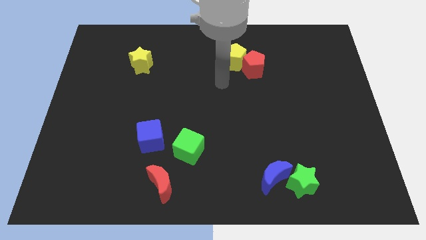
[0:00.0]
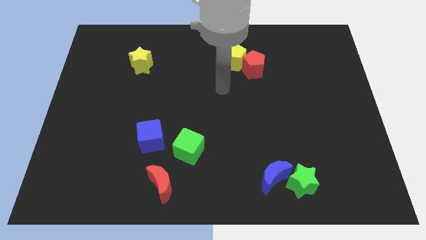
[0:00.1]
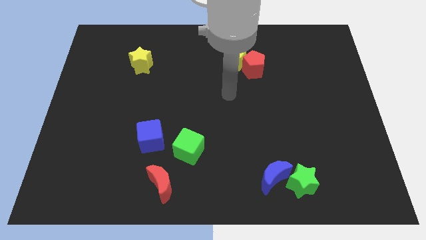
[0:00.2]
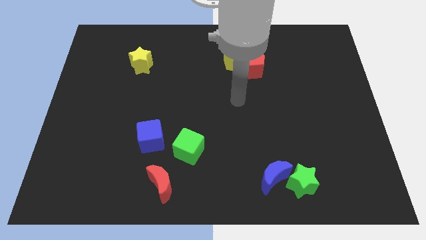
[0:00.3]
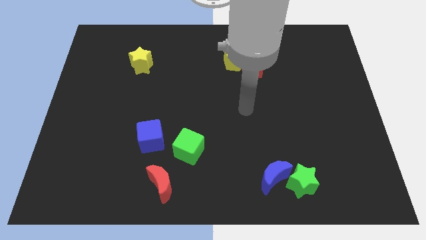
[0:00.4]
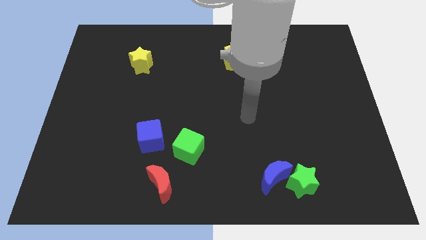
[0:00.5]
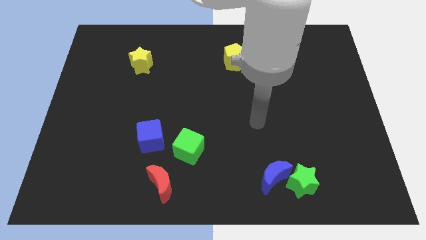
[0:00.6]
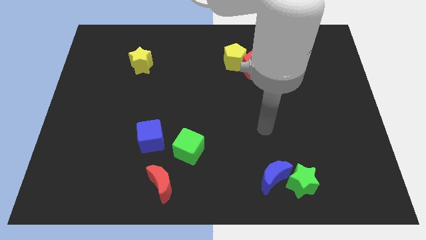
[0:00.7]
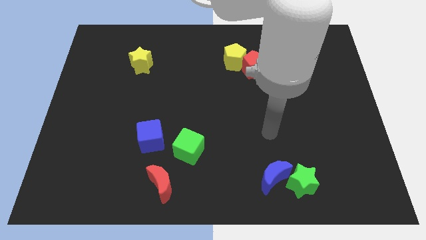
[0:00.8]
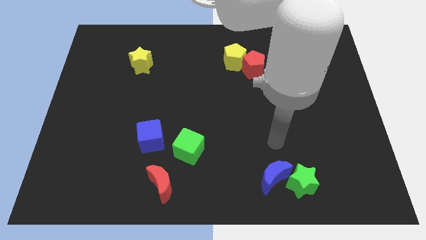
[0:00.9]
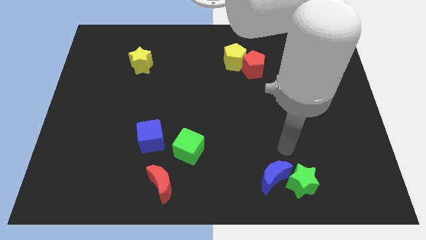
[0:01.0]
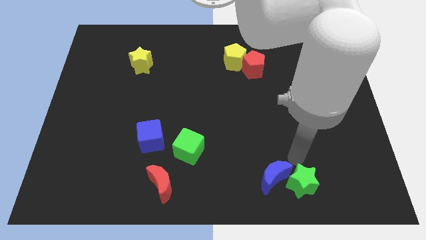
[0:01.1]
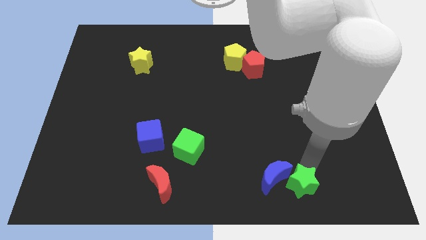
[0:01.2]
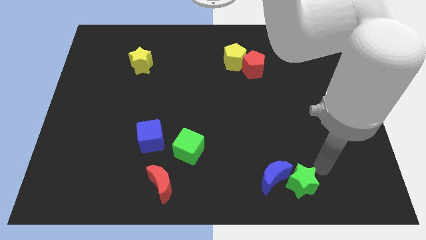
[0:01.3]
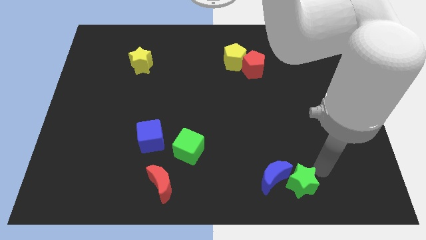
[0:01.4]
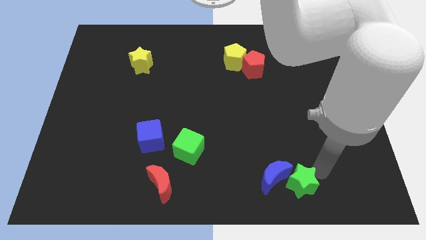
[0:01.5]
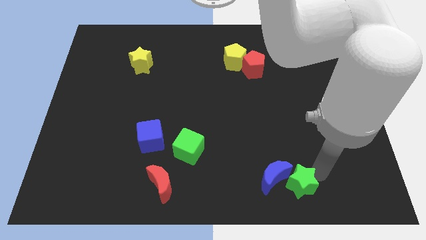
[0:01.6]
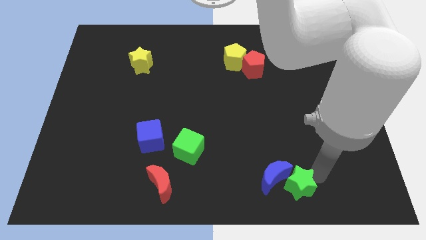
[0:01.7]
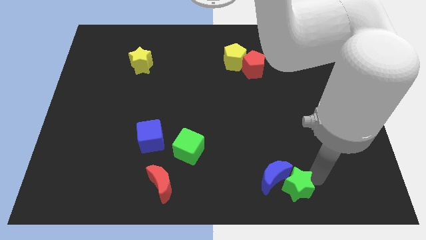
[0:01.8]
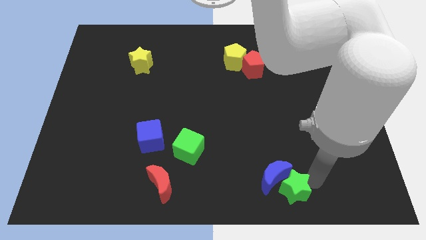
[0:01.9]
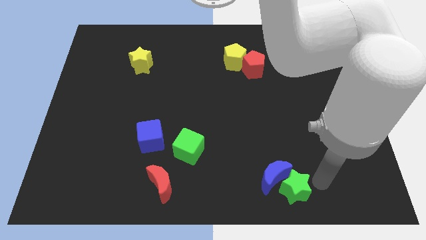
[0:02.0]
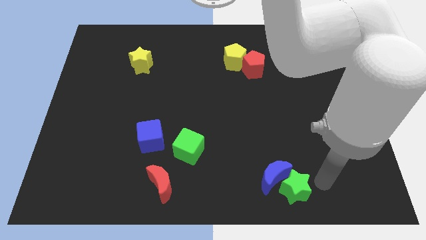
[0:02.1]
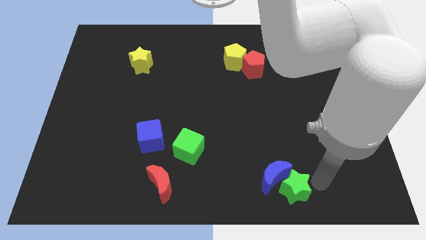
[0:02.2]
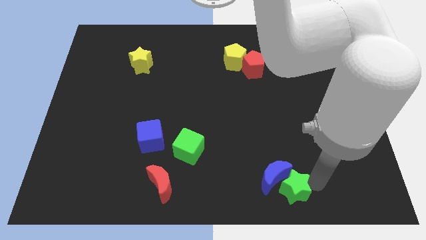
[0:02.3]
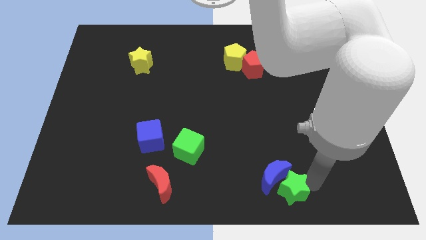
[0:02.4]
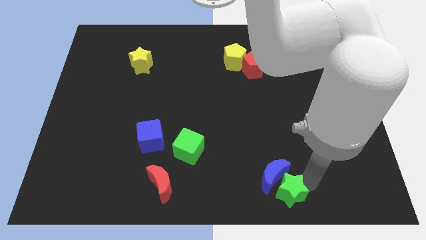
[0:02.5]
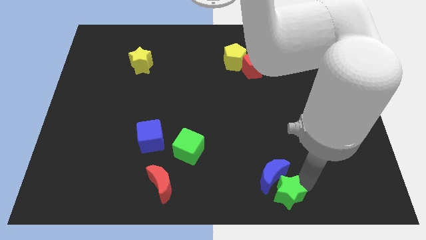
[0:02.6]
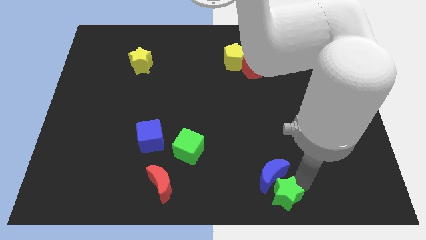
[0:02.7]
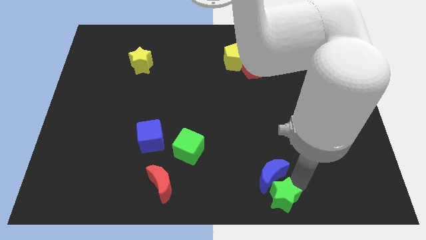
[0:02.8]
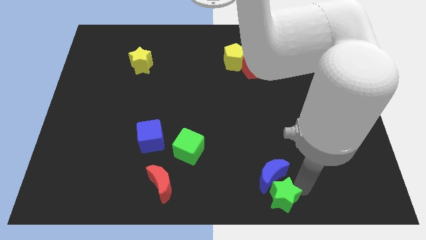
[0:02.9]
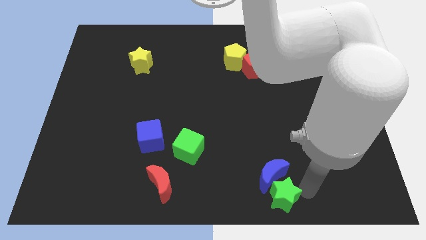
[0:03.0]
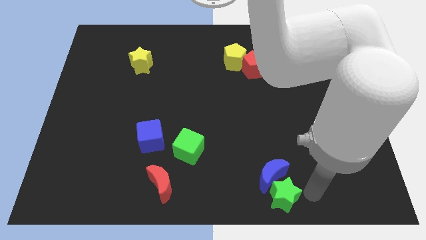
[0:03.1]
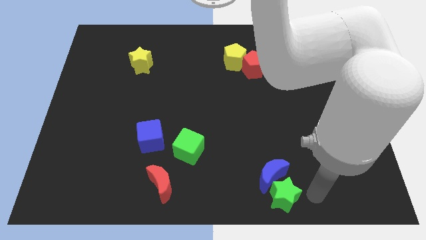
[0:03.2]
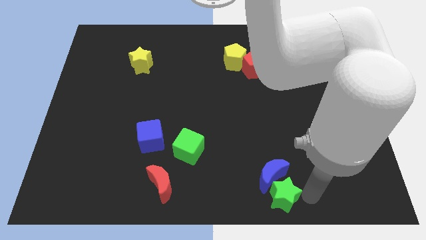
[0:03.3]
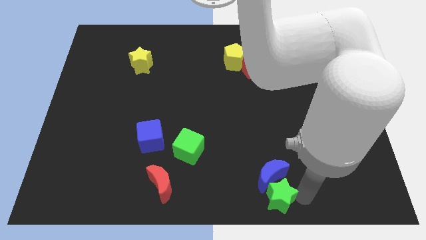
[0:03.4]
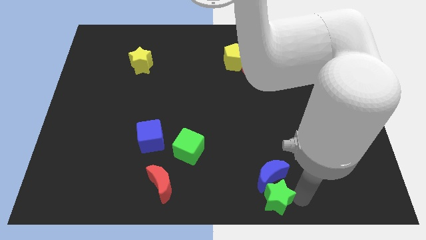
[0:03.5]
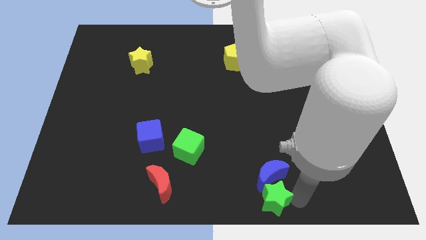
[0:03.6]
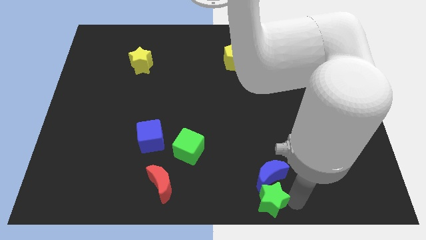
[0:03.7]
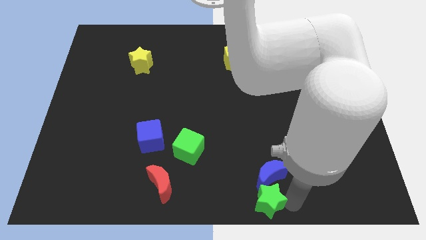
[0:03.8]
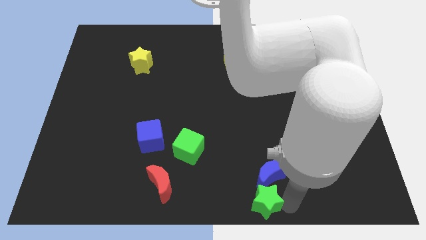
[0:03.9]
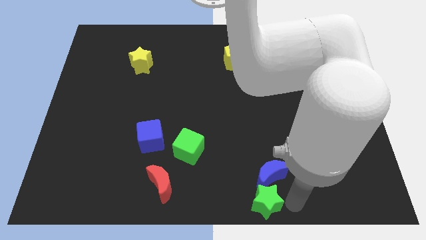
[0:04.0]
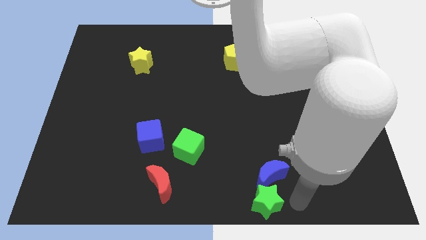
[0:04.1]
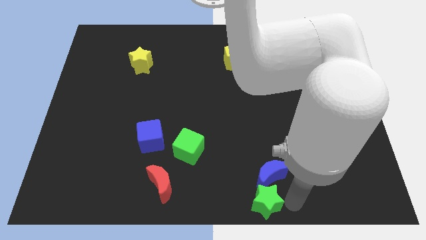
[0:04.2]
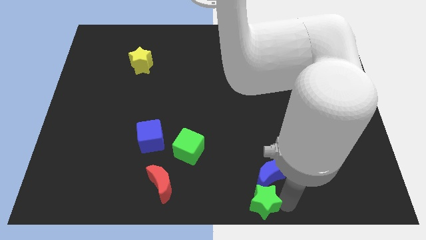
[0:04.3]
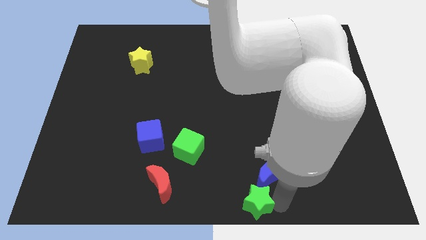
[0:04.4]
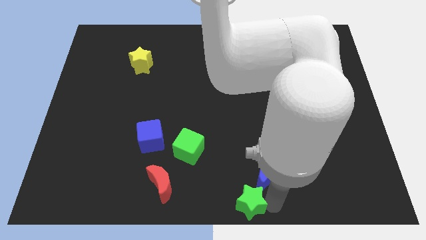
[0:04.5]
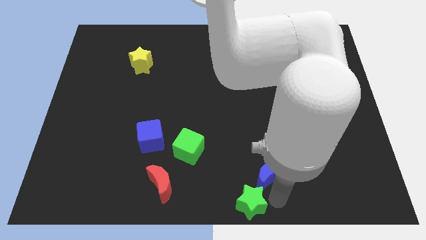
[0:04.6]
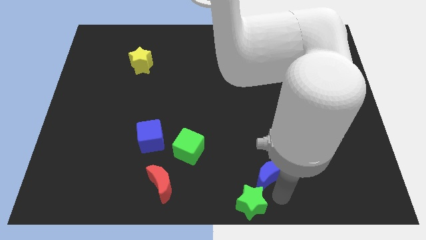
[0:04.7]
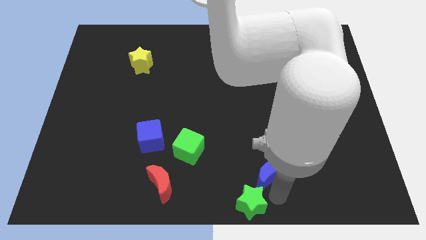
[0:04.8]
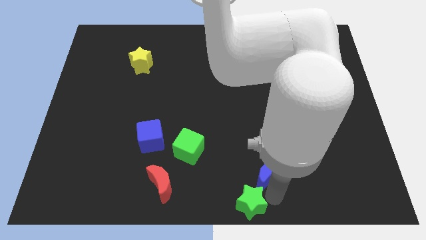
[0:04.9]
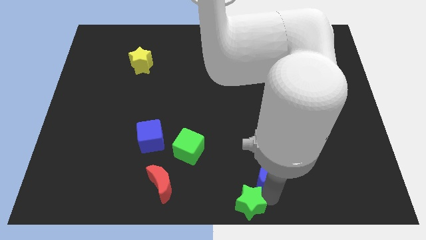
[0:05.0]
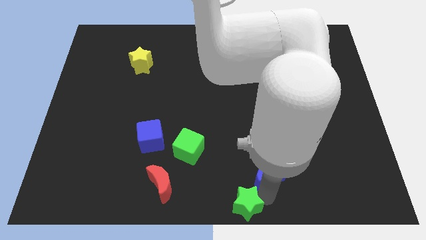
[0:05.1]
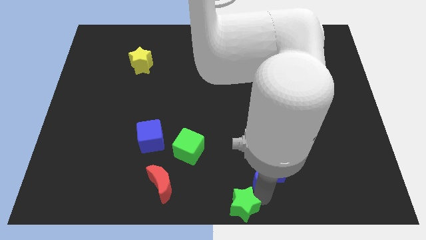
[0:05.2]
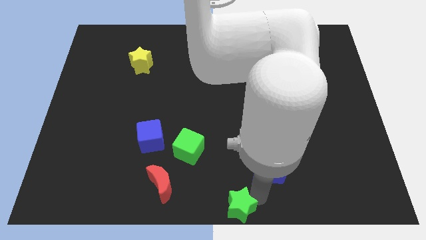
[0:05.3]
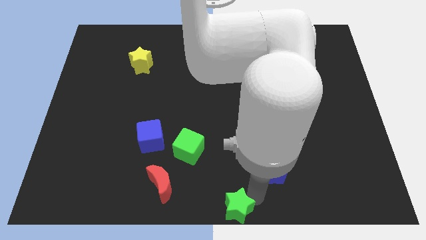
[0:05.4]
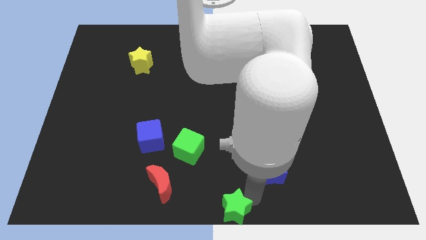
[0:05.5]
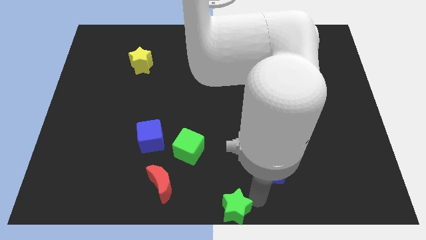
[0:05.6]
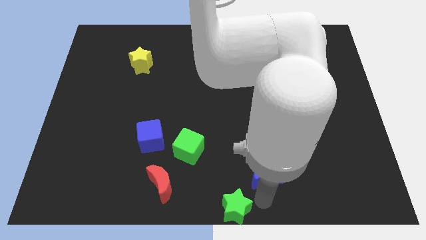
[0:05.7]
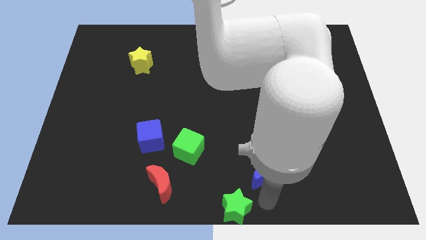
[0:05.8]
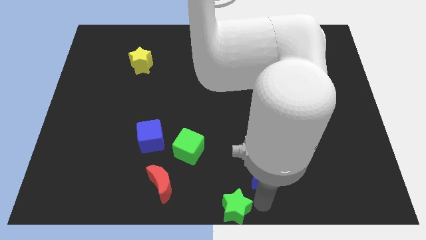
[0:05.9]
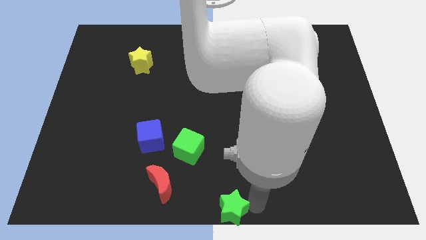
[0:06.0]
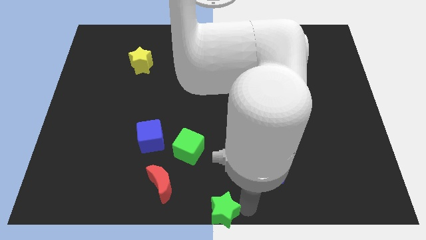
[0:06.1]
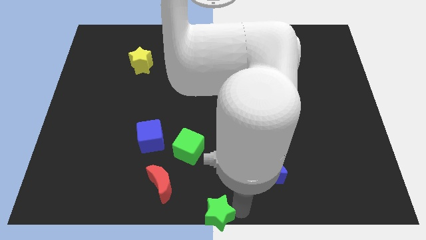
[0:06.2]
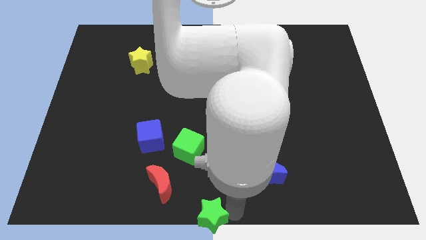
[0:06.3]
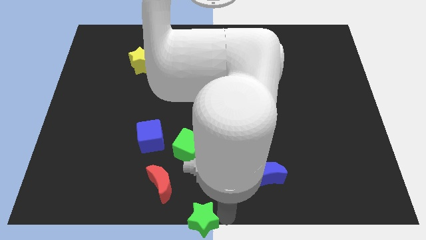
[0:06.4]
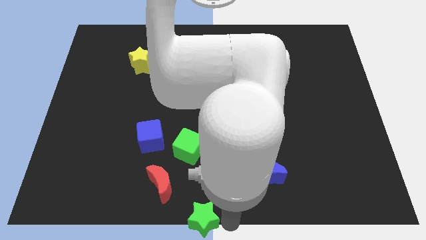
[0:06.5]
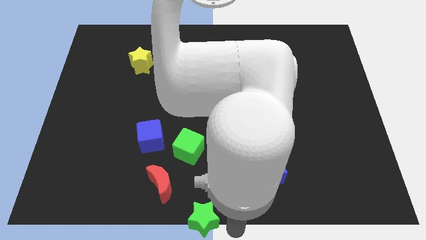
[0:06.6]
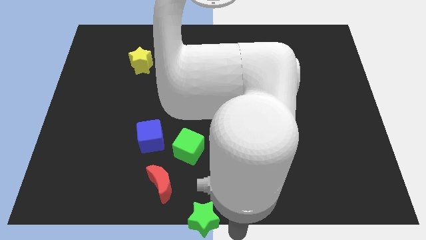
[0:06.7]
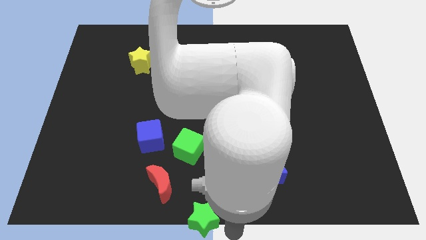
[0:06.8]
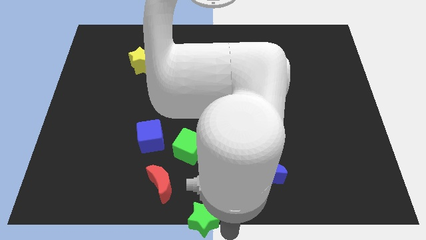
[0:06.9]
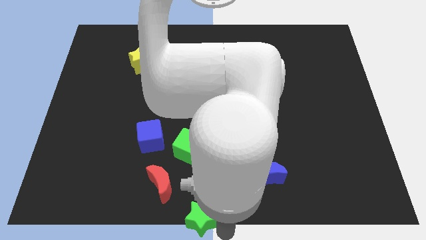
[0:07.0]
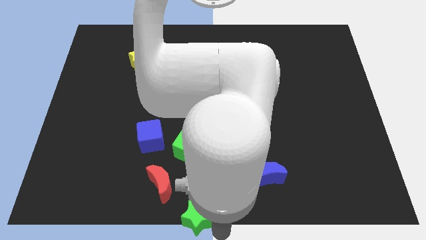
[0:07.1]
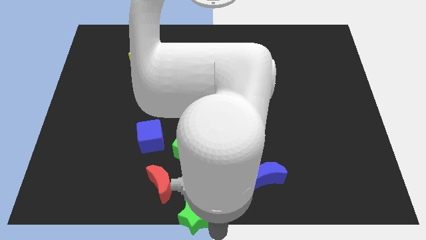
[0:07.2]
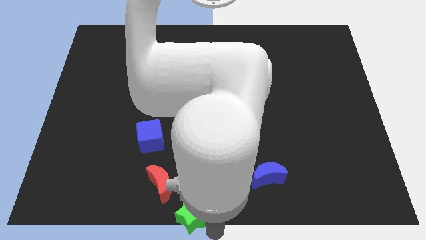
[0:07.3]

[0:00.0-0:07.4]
slide the green star to the left

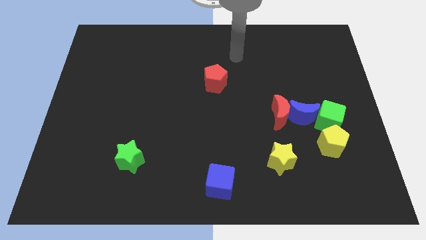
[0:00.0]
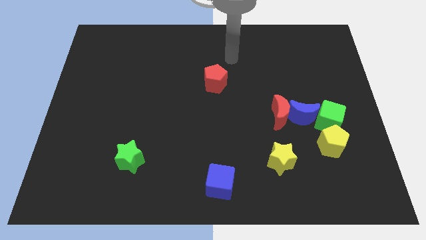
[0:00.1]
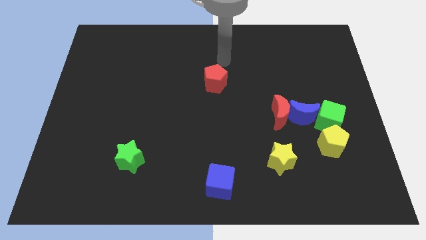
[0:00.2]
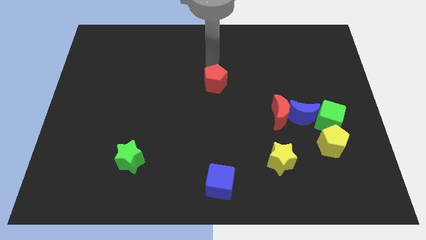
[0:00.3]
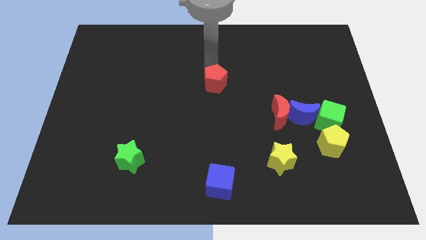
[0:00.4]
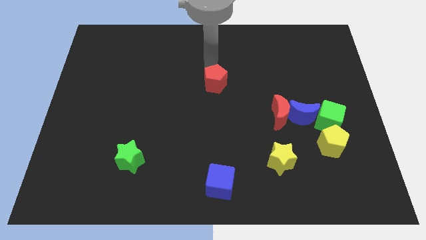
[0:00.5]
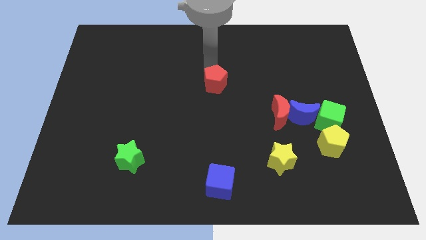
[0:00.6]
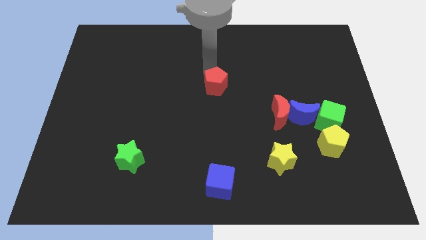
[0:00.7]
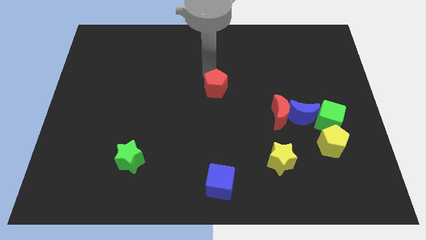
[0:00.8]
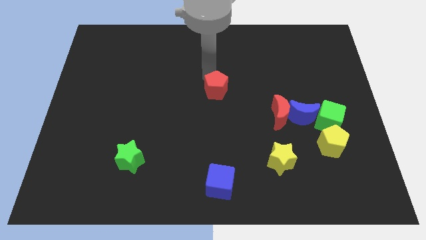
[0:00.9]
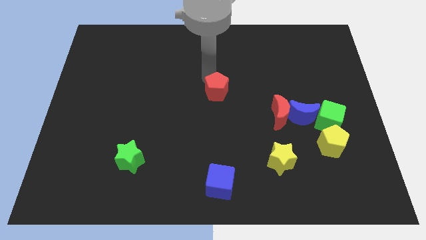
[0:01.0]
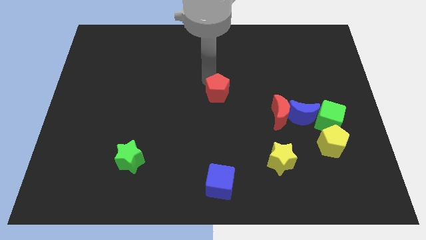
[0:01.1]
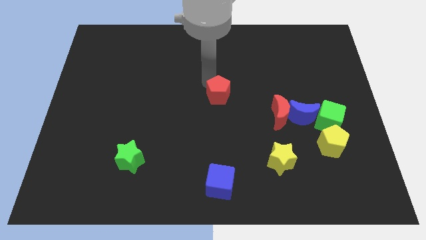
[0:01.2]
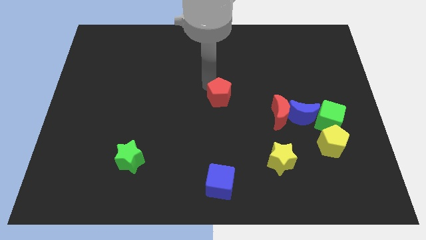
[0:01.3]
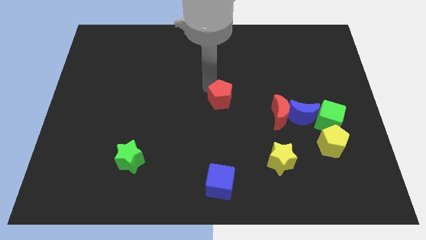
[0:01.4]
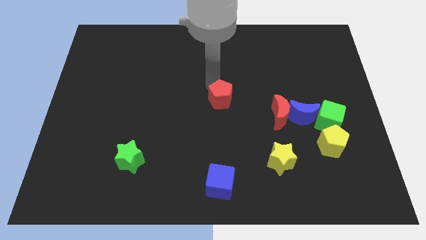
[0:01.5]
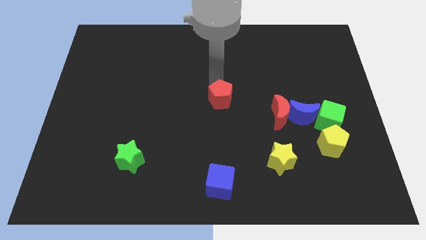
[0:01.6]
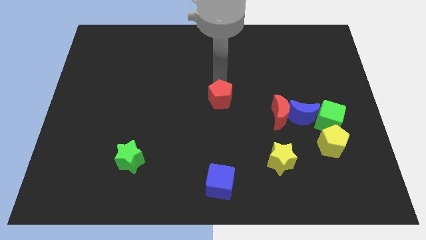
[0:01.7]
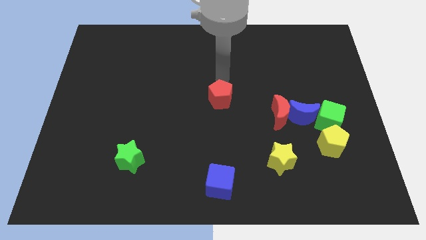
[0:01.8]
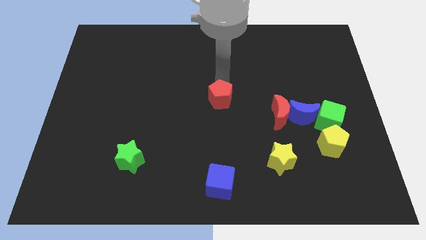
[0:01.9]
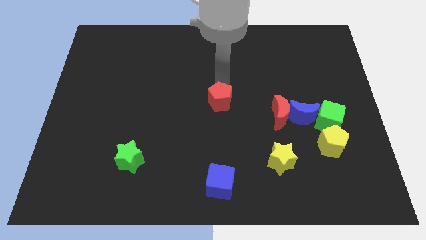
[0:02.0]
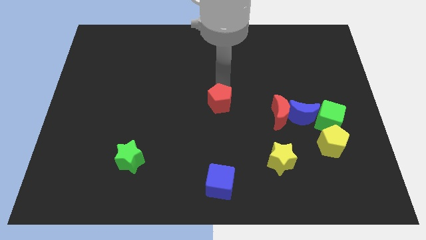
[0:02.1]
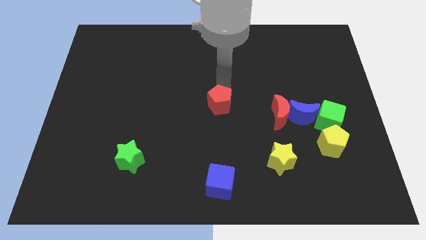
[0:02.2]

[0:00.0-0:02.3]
move the red pentagon somewhat down
